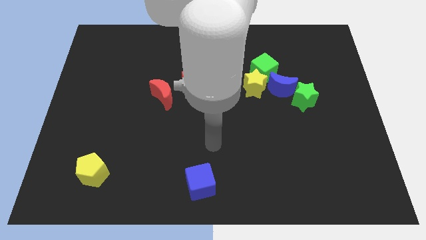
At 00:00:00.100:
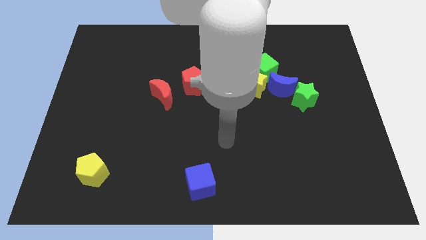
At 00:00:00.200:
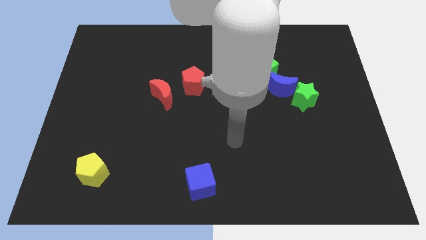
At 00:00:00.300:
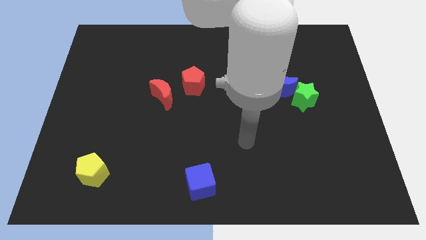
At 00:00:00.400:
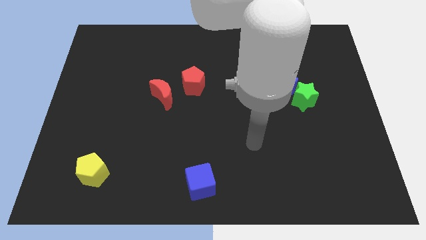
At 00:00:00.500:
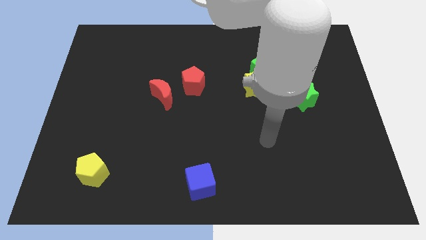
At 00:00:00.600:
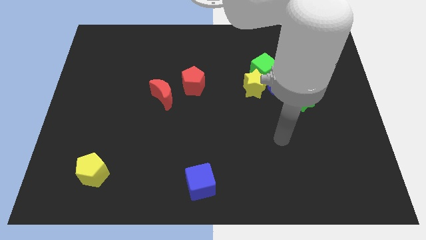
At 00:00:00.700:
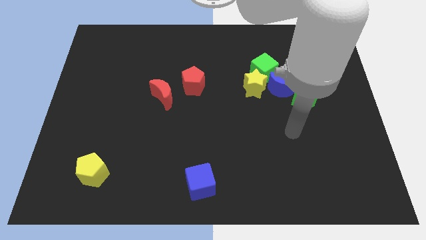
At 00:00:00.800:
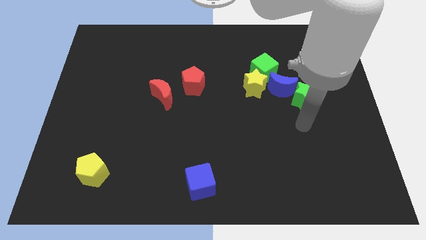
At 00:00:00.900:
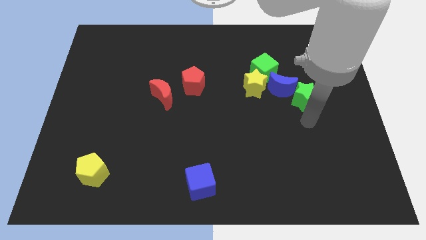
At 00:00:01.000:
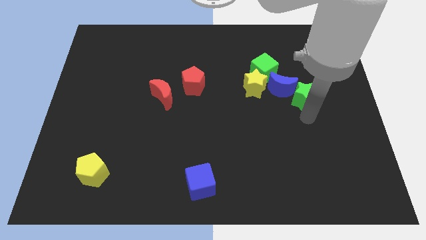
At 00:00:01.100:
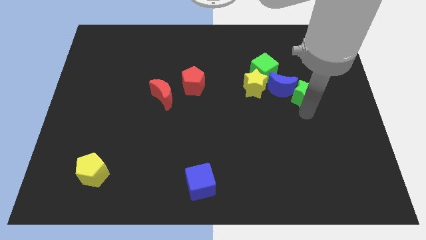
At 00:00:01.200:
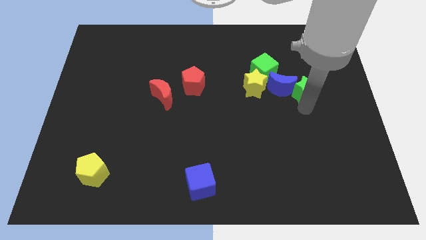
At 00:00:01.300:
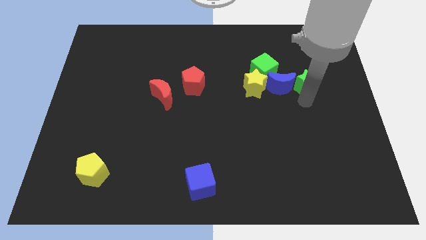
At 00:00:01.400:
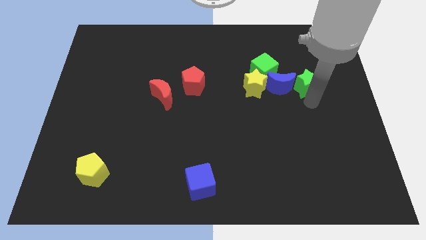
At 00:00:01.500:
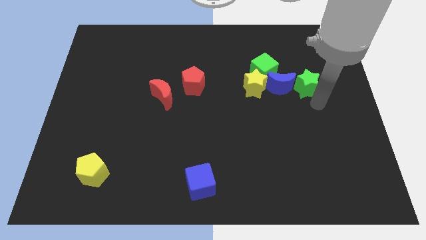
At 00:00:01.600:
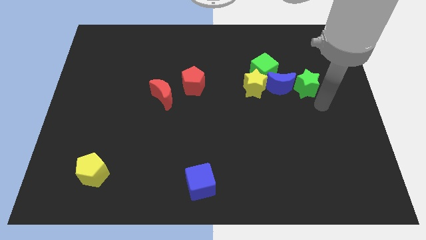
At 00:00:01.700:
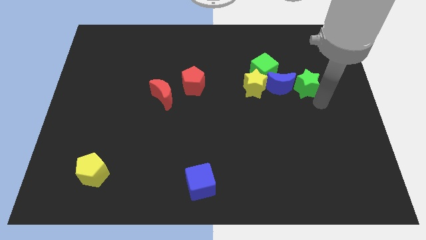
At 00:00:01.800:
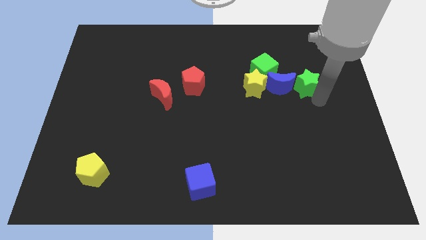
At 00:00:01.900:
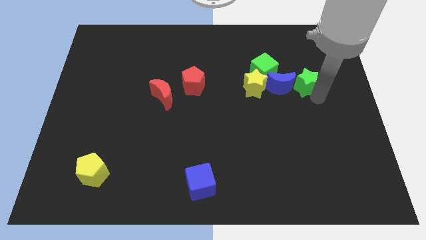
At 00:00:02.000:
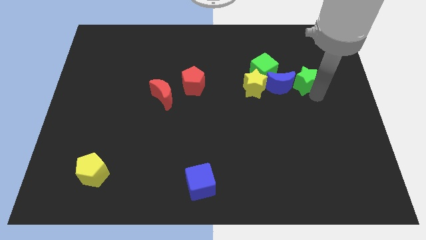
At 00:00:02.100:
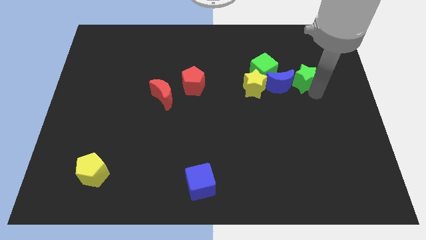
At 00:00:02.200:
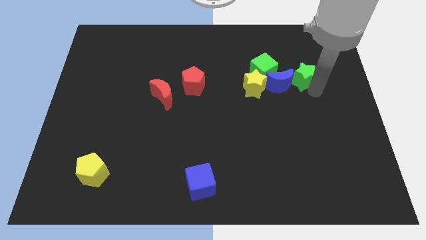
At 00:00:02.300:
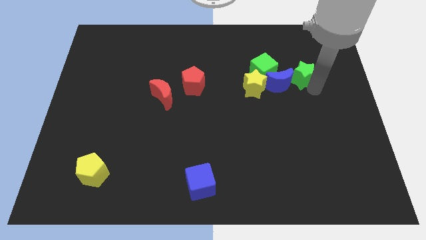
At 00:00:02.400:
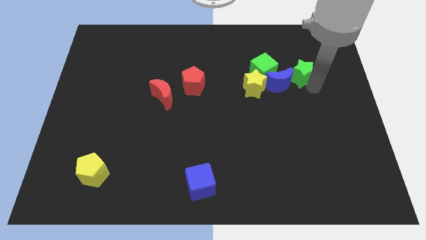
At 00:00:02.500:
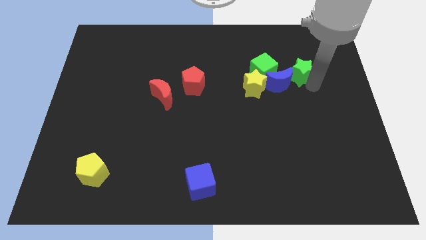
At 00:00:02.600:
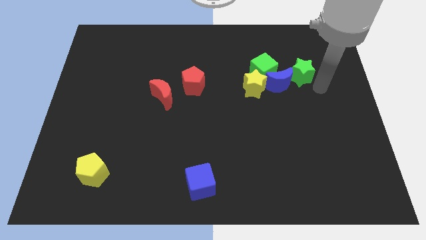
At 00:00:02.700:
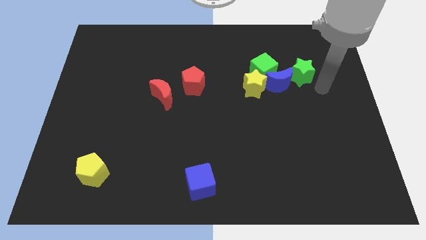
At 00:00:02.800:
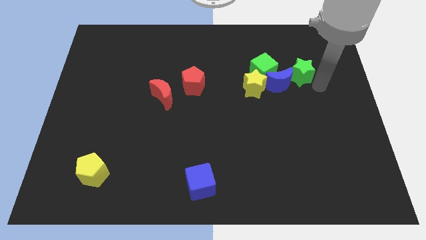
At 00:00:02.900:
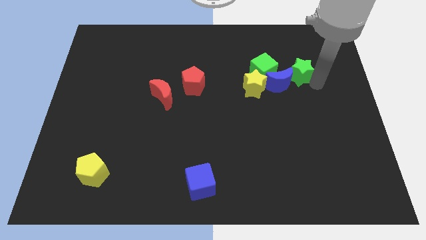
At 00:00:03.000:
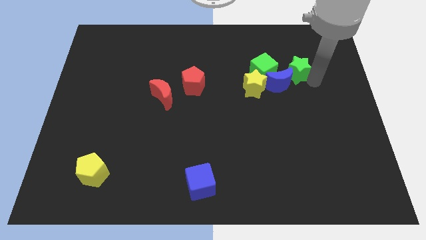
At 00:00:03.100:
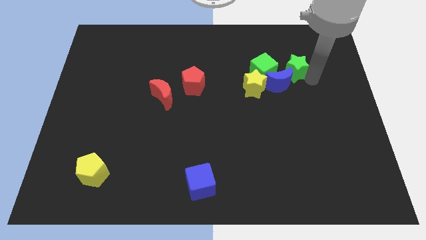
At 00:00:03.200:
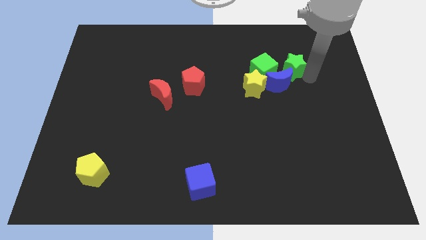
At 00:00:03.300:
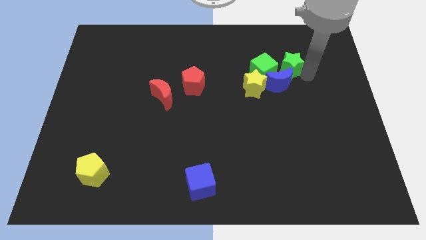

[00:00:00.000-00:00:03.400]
push the green star a little upwards and then to the left

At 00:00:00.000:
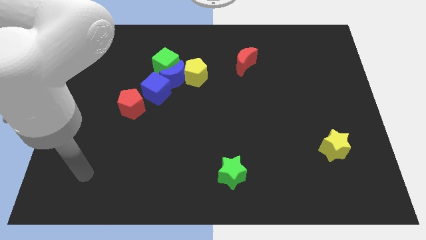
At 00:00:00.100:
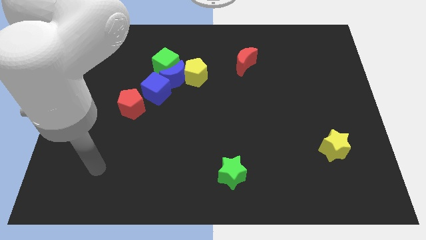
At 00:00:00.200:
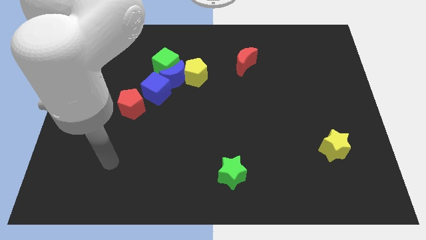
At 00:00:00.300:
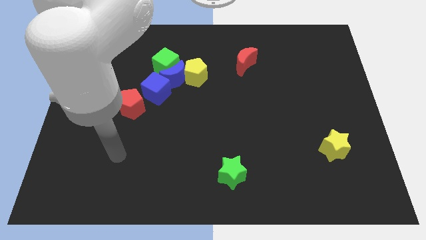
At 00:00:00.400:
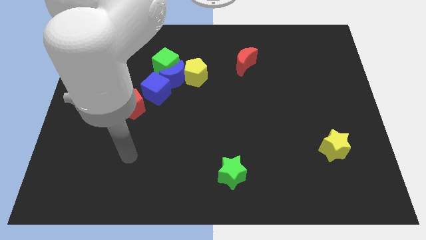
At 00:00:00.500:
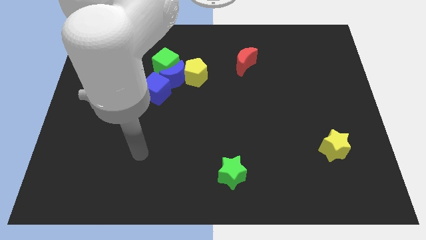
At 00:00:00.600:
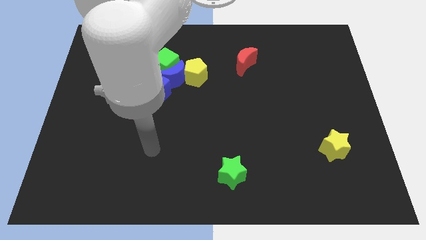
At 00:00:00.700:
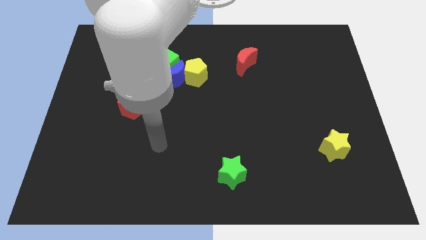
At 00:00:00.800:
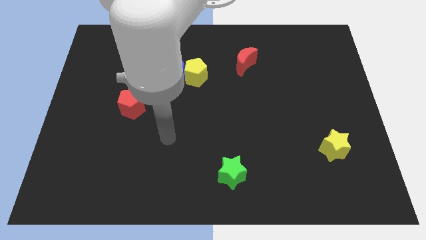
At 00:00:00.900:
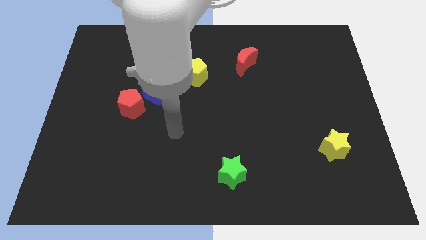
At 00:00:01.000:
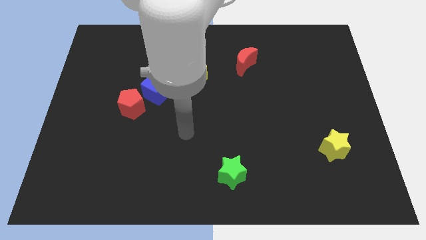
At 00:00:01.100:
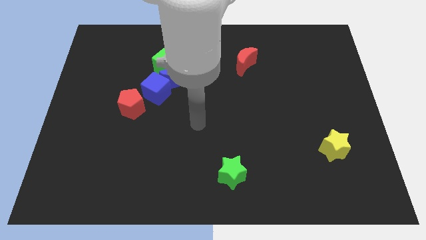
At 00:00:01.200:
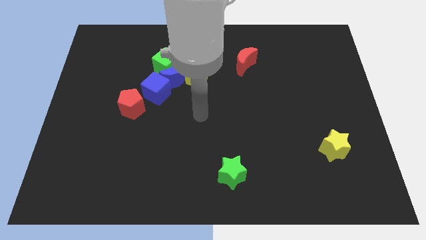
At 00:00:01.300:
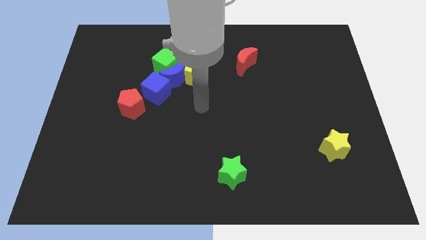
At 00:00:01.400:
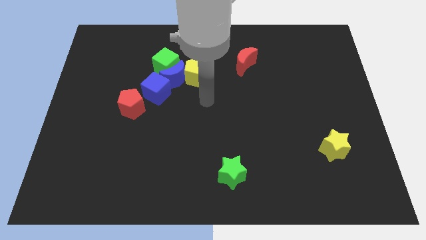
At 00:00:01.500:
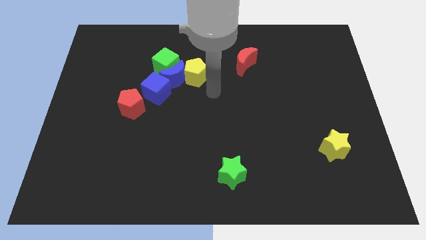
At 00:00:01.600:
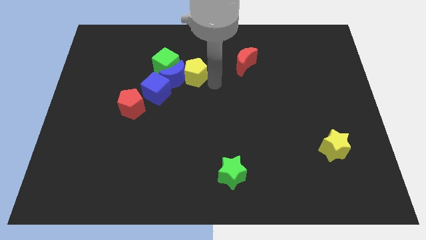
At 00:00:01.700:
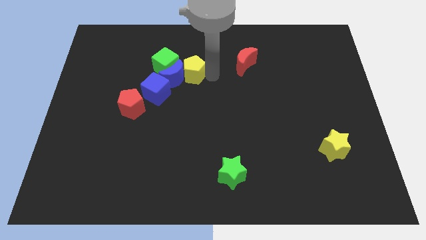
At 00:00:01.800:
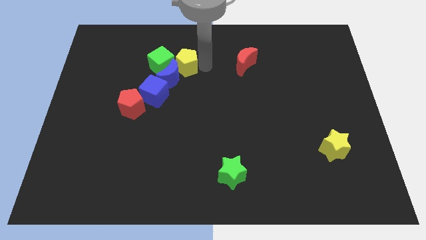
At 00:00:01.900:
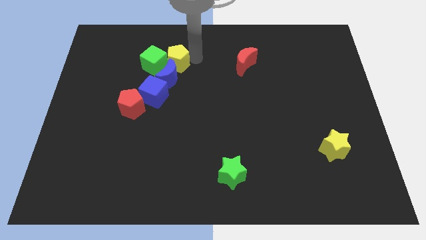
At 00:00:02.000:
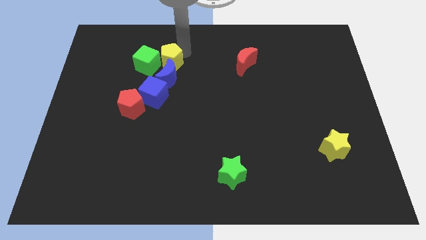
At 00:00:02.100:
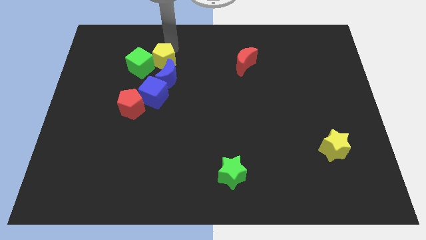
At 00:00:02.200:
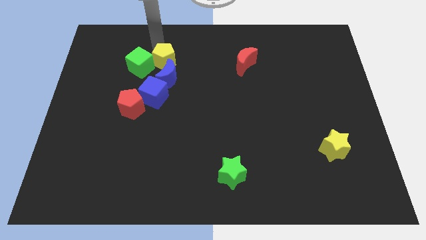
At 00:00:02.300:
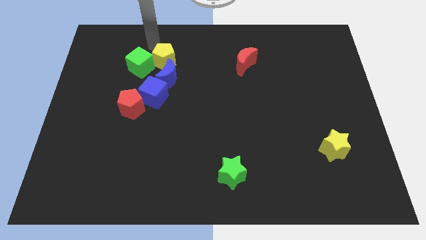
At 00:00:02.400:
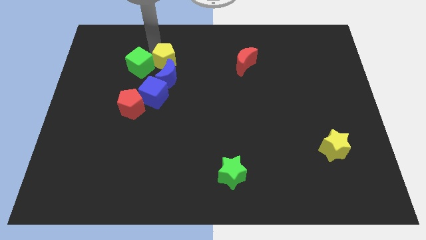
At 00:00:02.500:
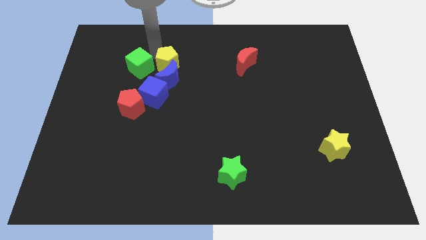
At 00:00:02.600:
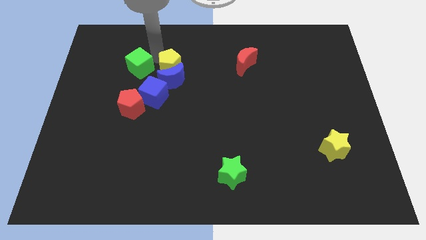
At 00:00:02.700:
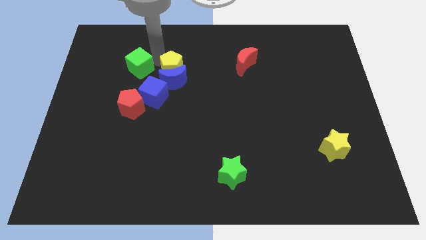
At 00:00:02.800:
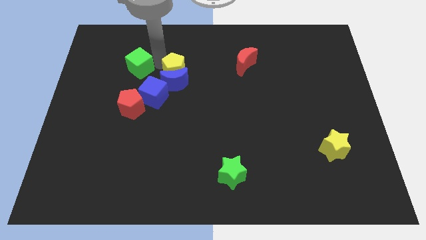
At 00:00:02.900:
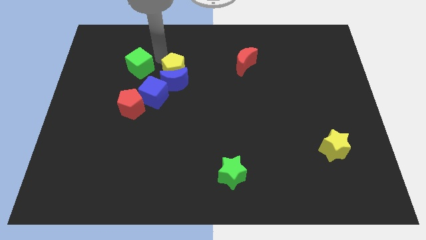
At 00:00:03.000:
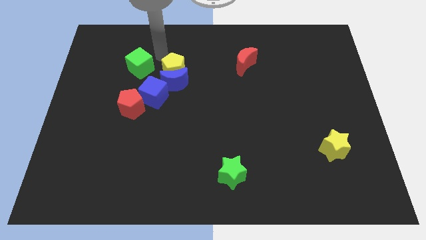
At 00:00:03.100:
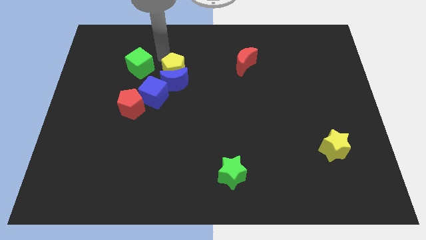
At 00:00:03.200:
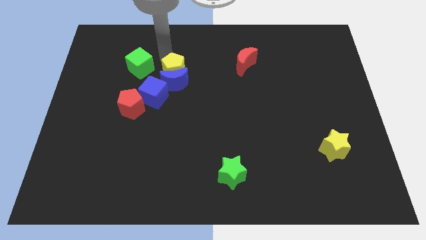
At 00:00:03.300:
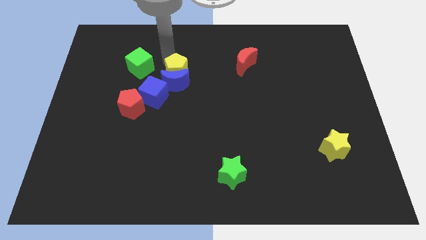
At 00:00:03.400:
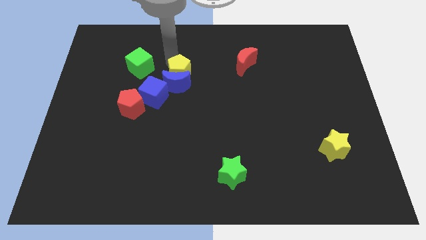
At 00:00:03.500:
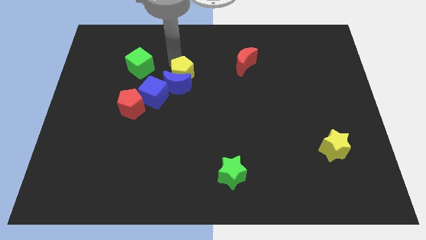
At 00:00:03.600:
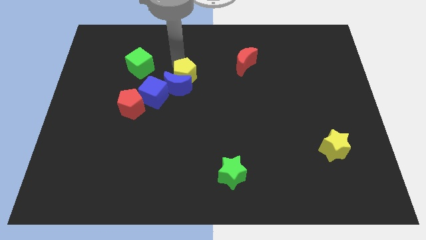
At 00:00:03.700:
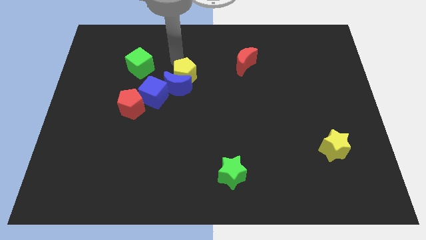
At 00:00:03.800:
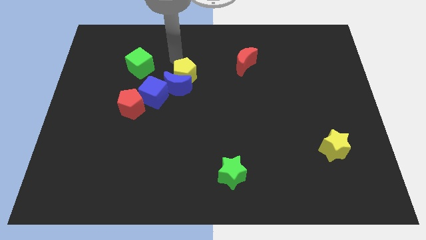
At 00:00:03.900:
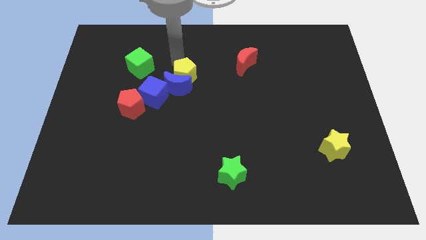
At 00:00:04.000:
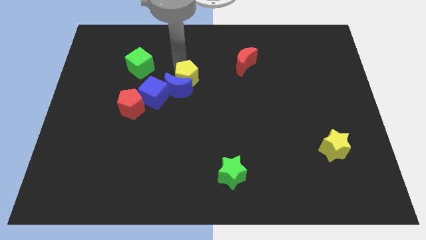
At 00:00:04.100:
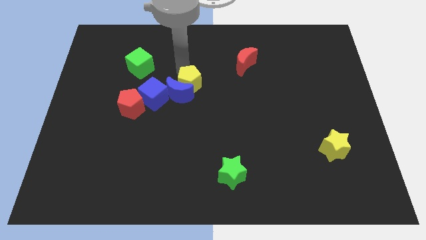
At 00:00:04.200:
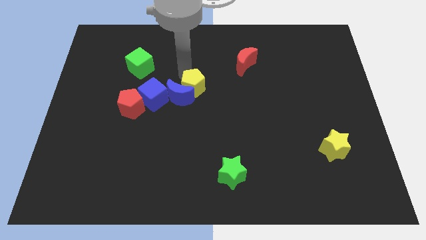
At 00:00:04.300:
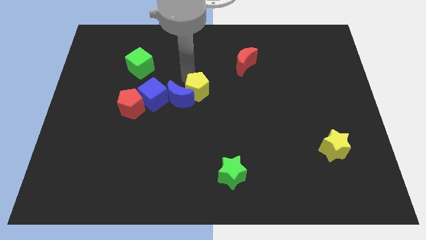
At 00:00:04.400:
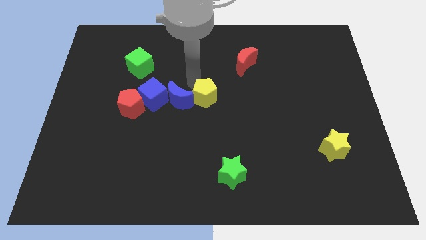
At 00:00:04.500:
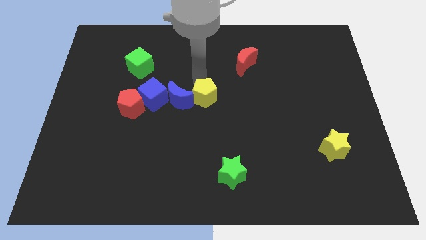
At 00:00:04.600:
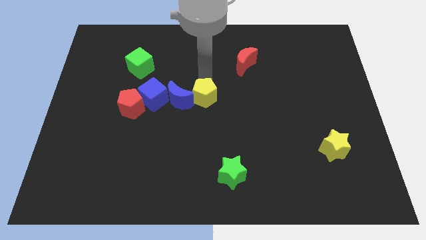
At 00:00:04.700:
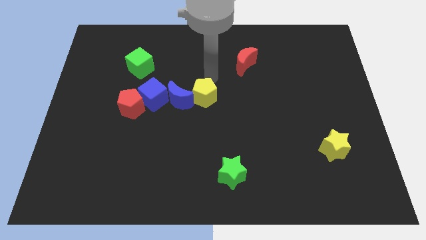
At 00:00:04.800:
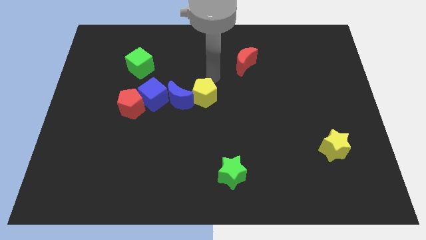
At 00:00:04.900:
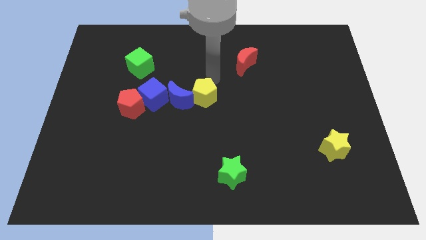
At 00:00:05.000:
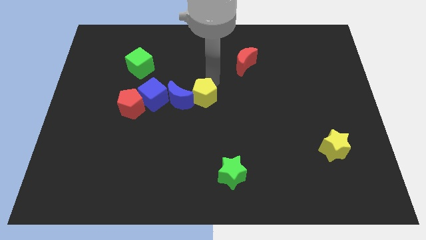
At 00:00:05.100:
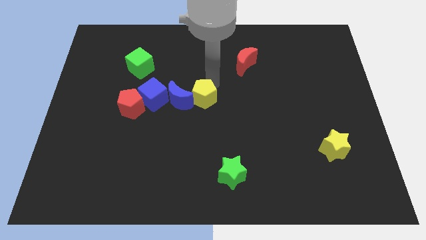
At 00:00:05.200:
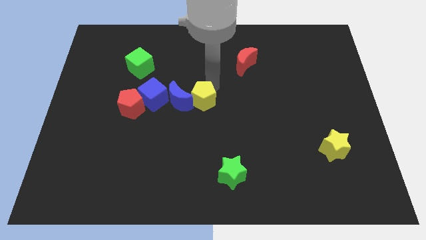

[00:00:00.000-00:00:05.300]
push the yellow pentagon a little down
